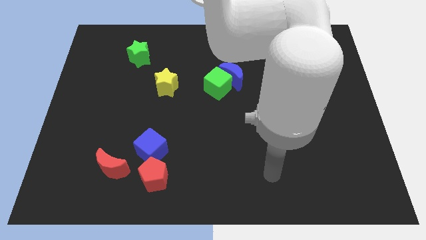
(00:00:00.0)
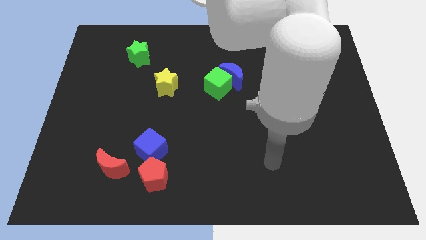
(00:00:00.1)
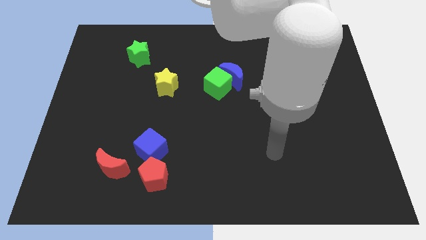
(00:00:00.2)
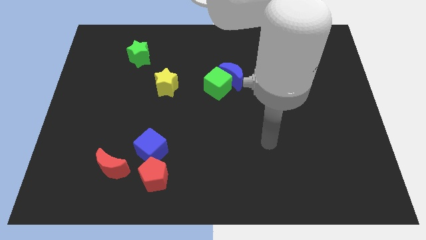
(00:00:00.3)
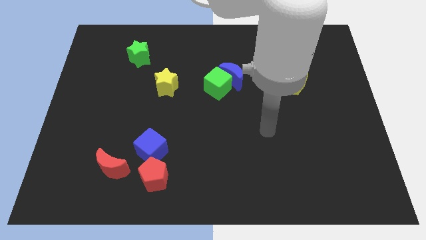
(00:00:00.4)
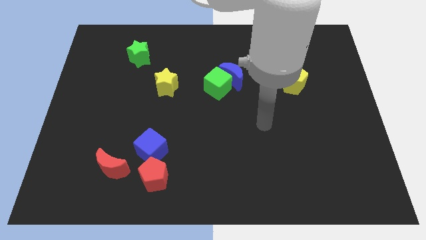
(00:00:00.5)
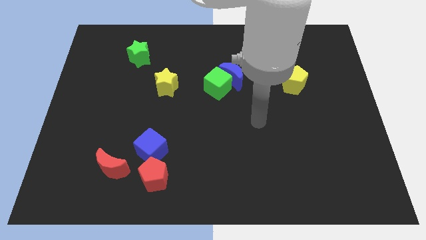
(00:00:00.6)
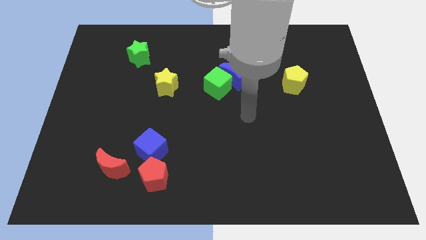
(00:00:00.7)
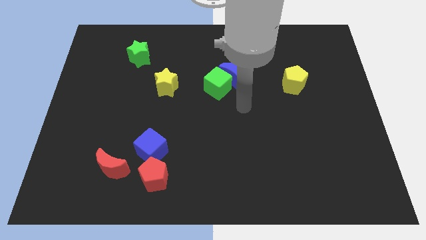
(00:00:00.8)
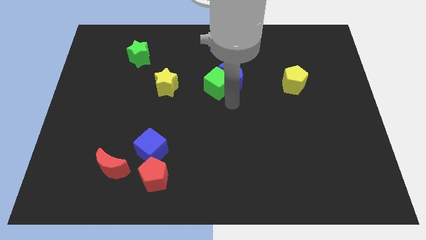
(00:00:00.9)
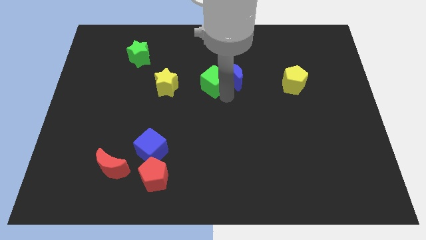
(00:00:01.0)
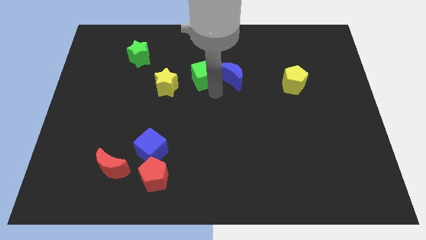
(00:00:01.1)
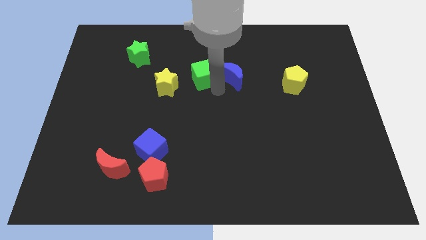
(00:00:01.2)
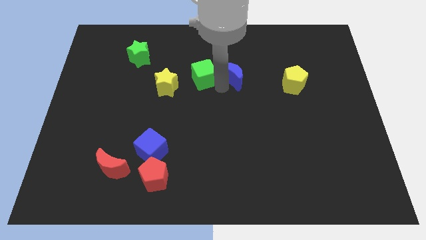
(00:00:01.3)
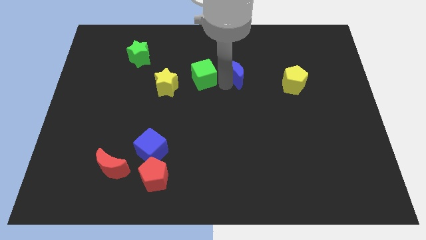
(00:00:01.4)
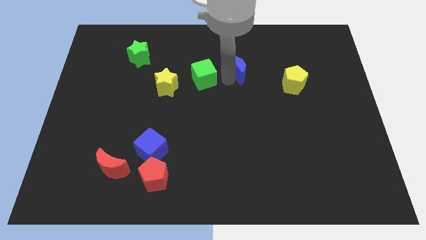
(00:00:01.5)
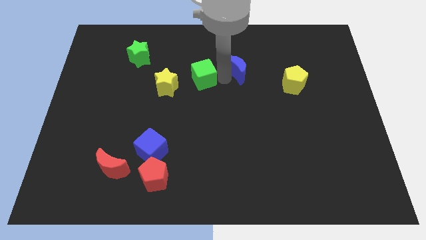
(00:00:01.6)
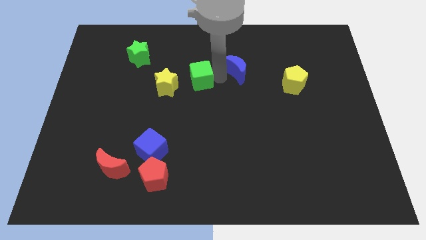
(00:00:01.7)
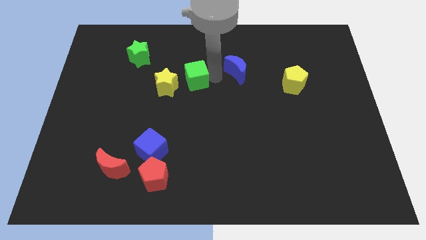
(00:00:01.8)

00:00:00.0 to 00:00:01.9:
separate the blue moon from the green cube

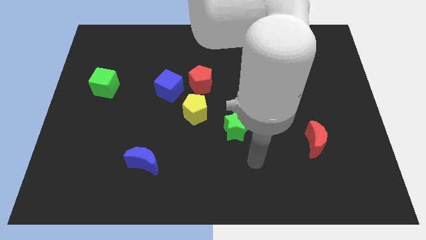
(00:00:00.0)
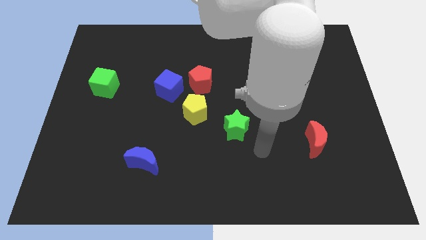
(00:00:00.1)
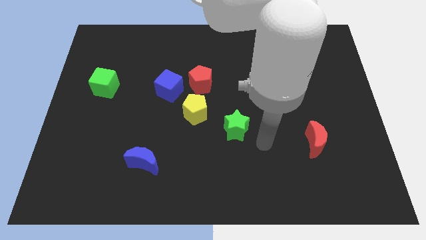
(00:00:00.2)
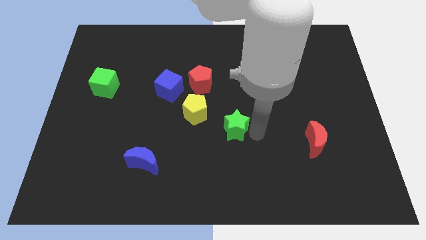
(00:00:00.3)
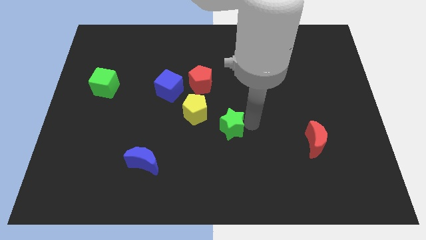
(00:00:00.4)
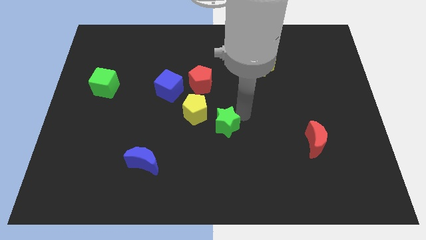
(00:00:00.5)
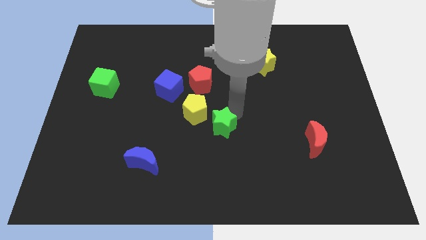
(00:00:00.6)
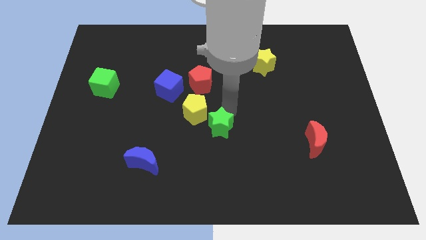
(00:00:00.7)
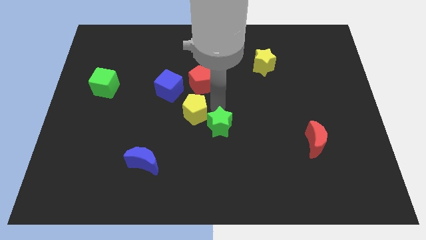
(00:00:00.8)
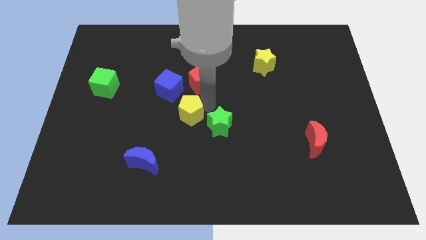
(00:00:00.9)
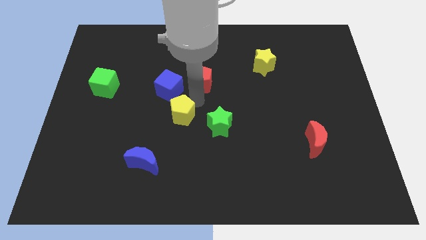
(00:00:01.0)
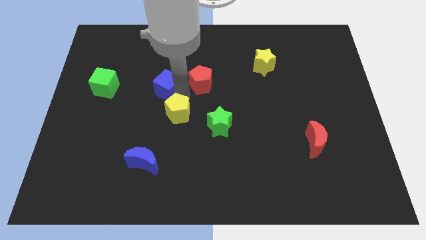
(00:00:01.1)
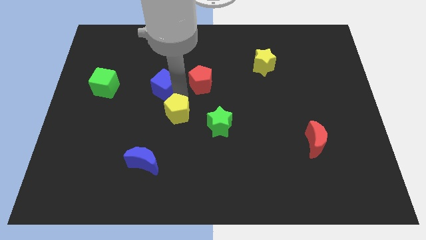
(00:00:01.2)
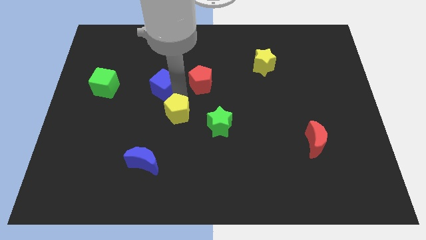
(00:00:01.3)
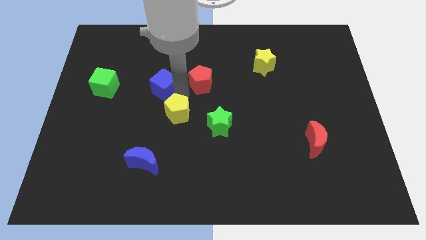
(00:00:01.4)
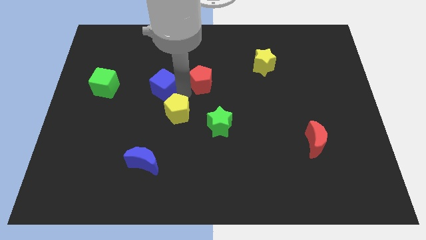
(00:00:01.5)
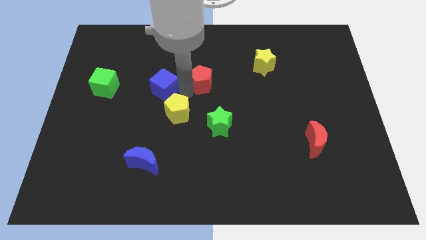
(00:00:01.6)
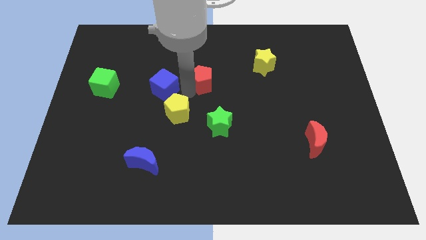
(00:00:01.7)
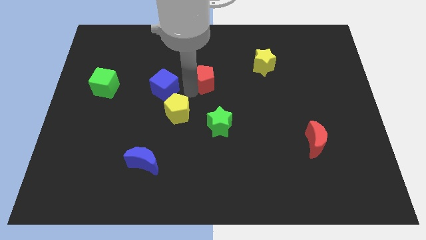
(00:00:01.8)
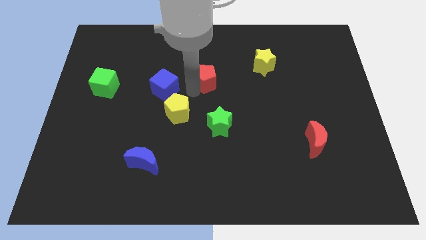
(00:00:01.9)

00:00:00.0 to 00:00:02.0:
pull the red pentagon apart from the blue cube and yellow pentagon

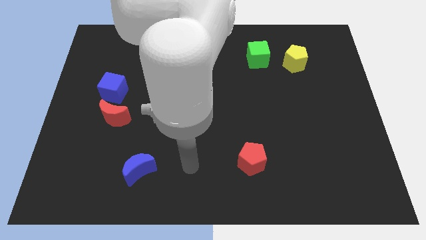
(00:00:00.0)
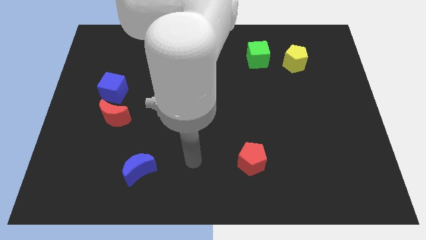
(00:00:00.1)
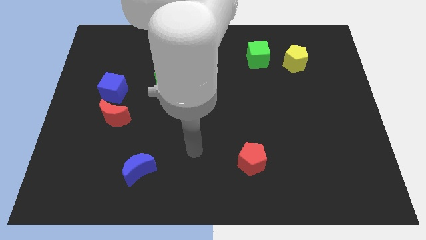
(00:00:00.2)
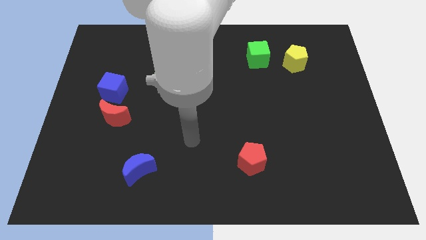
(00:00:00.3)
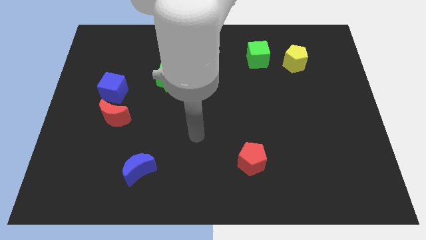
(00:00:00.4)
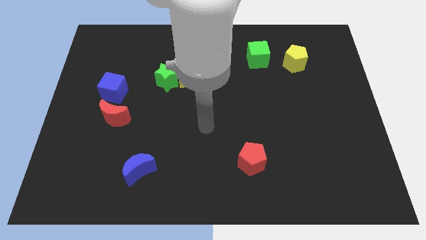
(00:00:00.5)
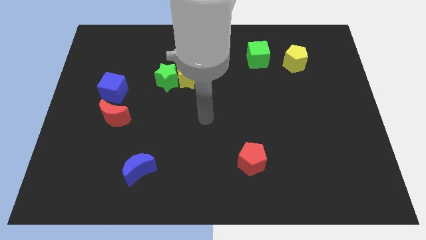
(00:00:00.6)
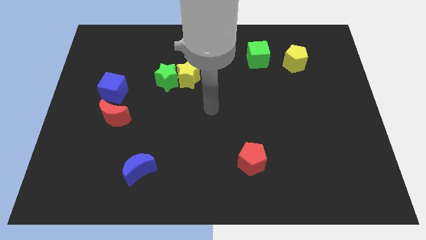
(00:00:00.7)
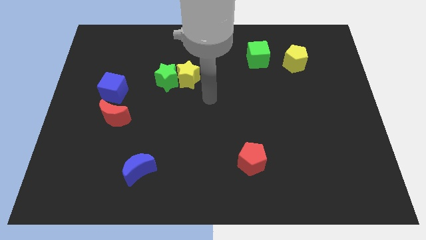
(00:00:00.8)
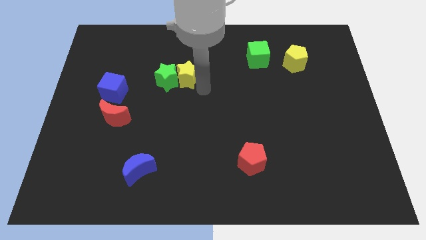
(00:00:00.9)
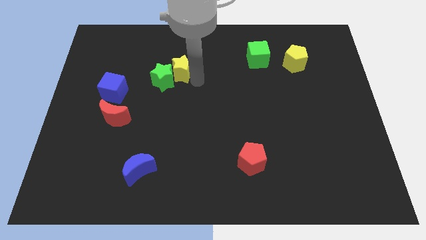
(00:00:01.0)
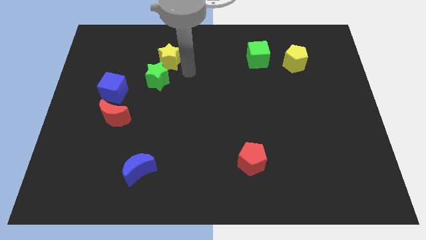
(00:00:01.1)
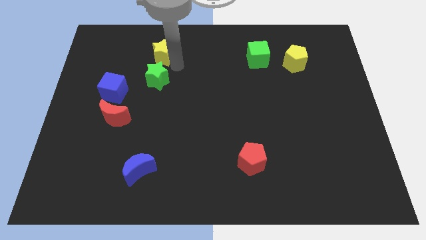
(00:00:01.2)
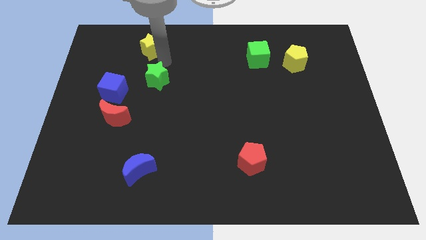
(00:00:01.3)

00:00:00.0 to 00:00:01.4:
separate the green star from the yellow star

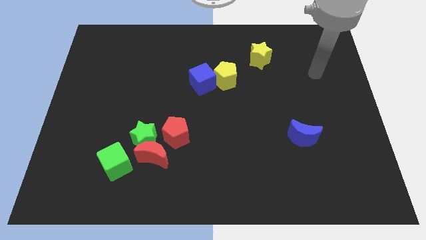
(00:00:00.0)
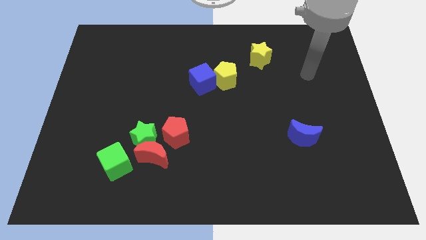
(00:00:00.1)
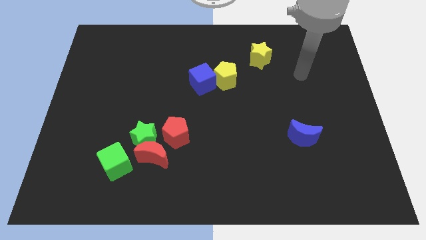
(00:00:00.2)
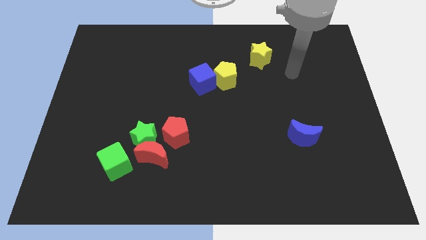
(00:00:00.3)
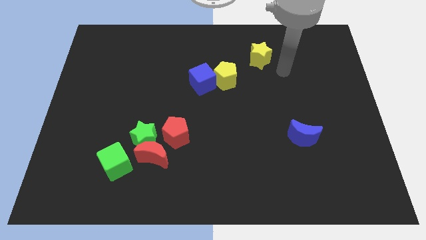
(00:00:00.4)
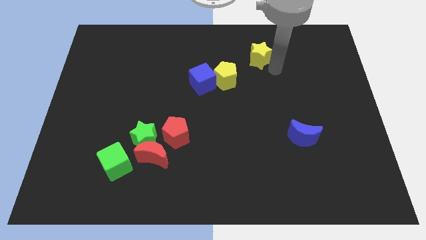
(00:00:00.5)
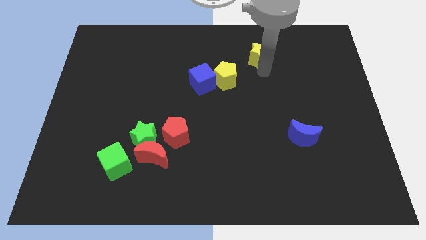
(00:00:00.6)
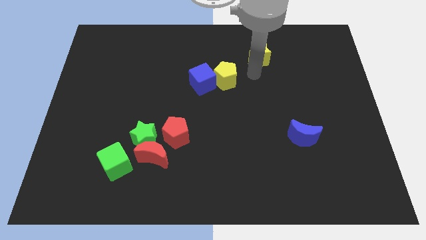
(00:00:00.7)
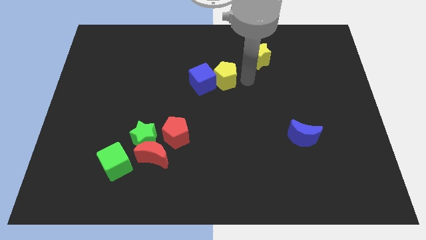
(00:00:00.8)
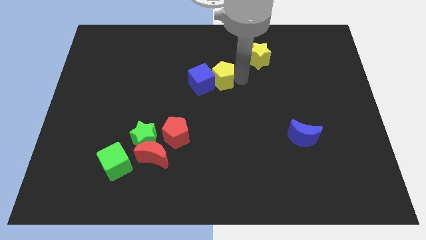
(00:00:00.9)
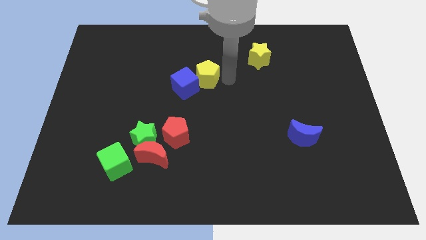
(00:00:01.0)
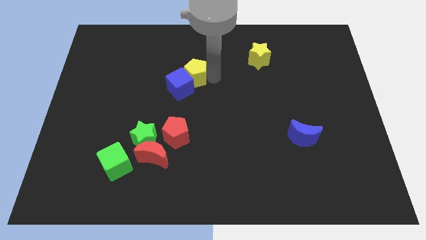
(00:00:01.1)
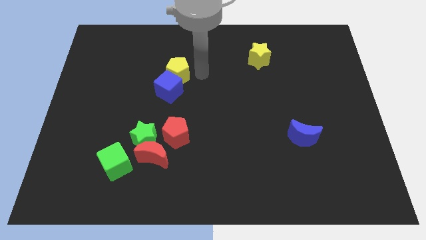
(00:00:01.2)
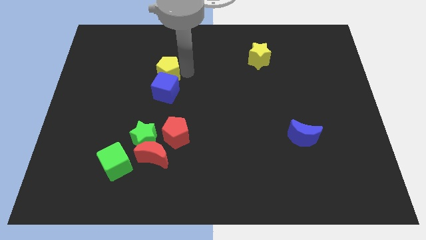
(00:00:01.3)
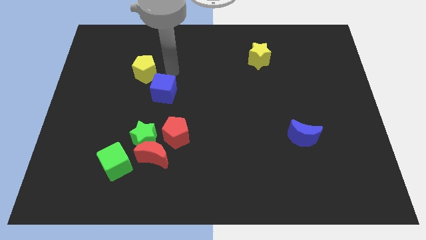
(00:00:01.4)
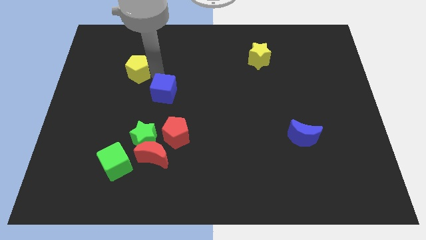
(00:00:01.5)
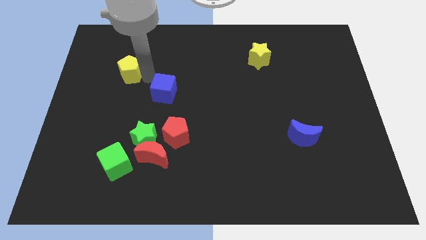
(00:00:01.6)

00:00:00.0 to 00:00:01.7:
move the blue cube away from the yellow pentagon

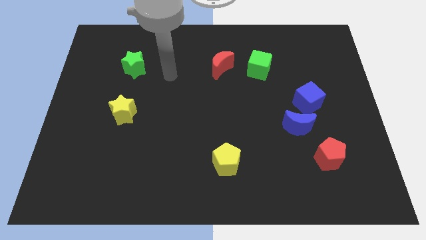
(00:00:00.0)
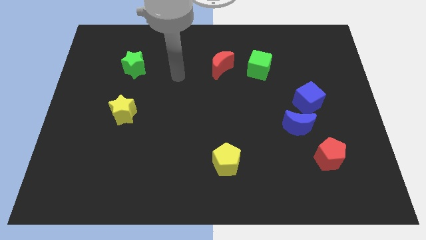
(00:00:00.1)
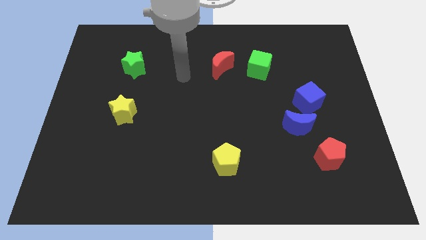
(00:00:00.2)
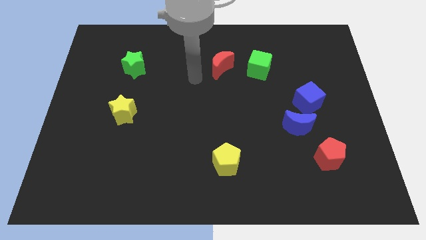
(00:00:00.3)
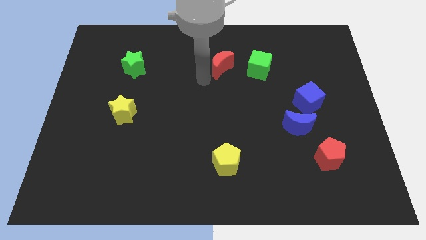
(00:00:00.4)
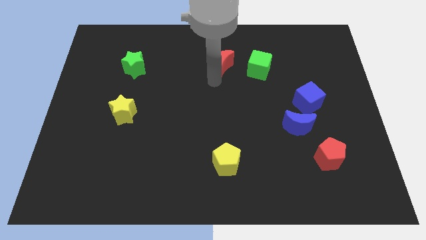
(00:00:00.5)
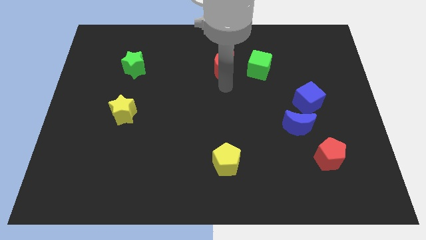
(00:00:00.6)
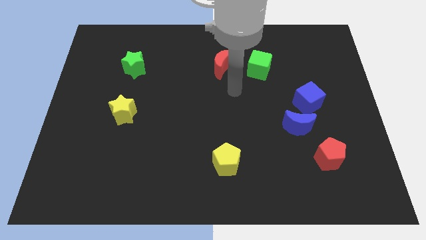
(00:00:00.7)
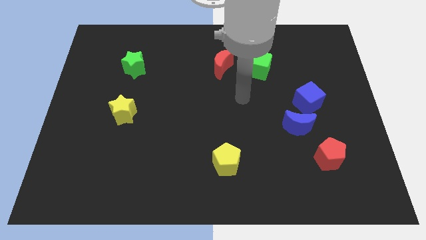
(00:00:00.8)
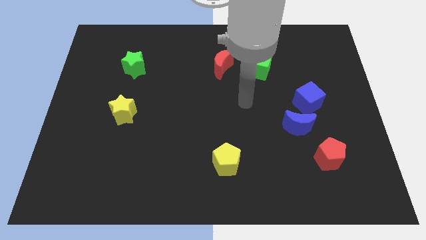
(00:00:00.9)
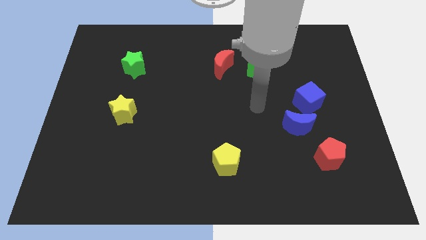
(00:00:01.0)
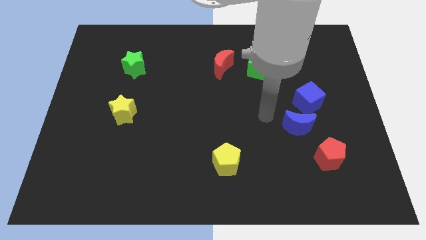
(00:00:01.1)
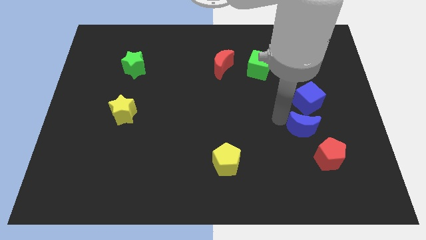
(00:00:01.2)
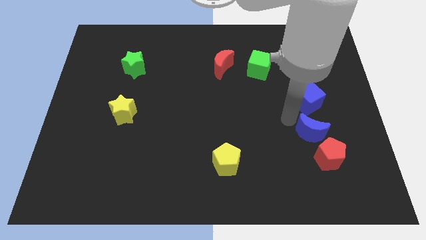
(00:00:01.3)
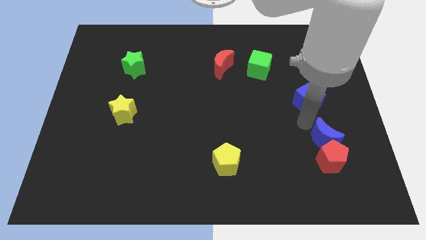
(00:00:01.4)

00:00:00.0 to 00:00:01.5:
separate the blue cube from the blue moon

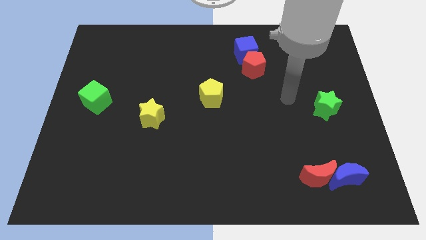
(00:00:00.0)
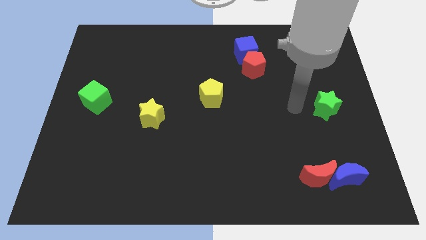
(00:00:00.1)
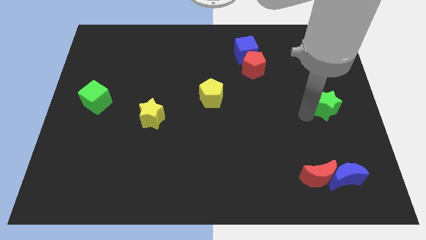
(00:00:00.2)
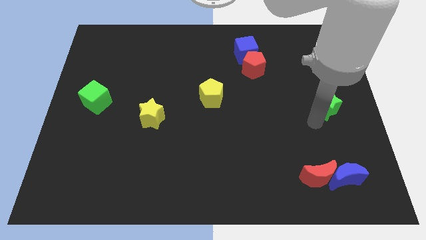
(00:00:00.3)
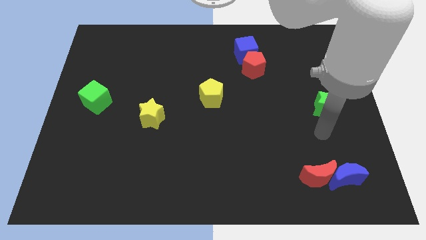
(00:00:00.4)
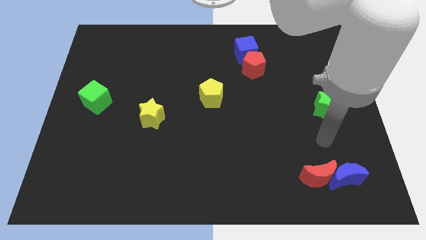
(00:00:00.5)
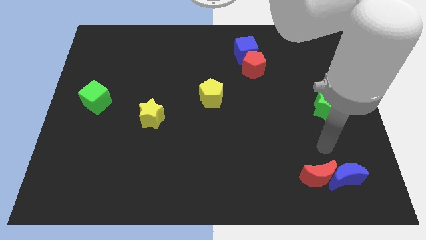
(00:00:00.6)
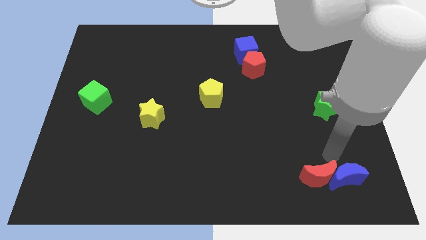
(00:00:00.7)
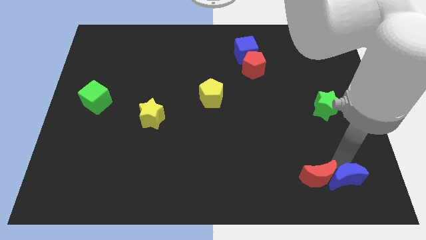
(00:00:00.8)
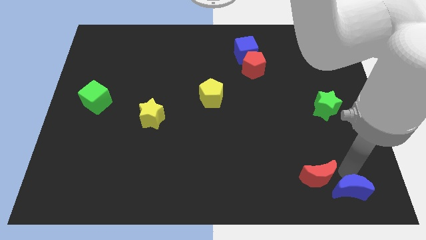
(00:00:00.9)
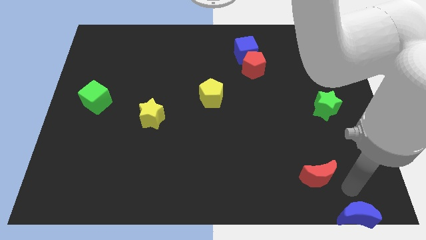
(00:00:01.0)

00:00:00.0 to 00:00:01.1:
move the red moon away from the blue moon
